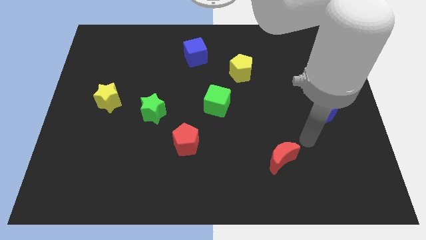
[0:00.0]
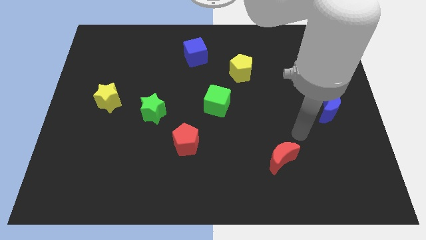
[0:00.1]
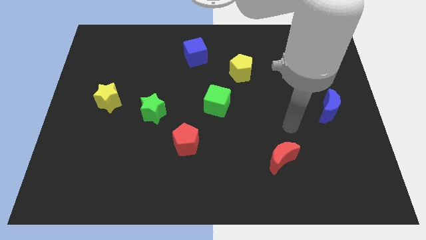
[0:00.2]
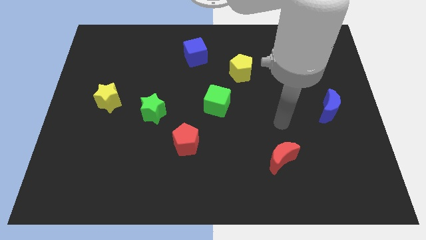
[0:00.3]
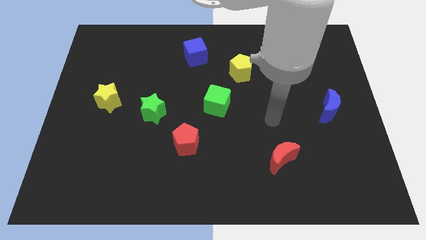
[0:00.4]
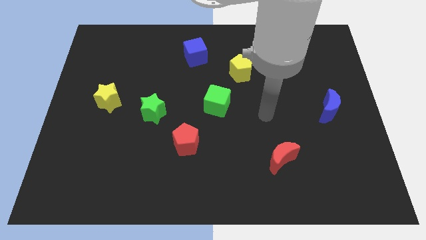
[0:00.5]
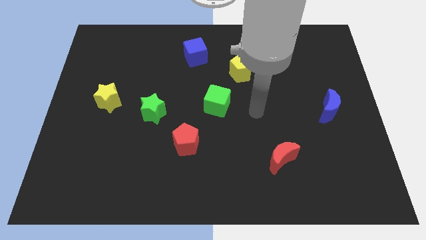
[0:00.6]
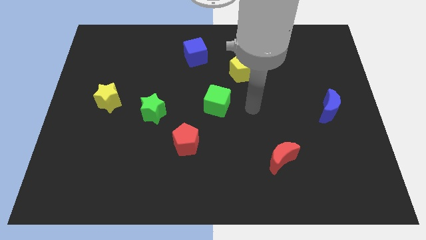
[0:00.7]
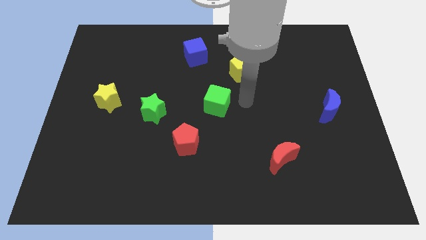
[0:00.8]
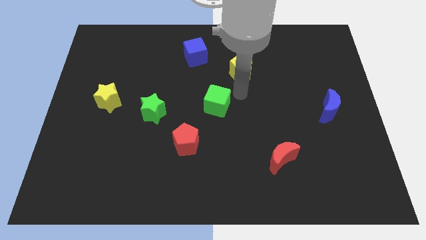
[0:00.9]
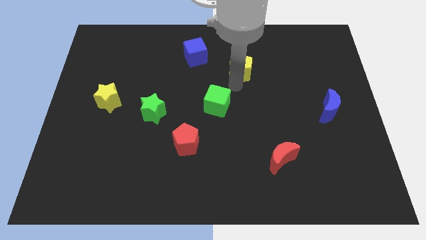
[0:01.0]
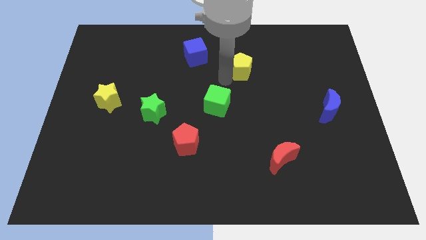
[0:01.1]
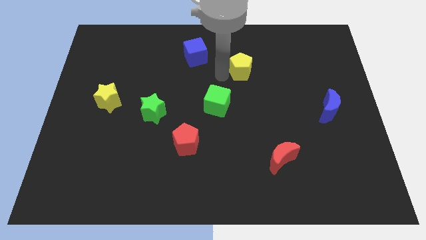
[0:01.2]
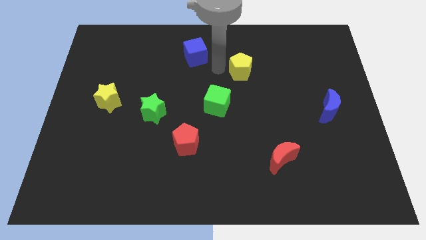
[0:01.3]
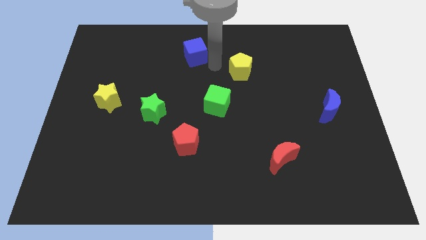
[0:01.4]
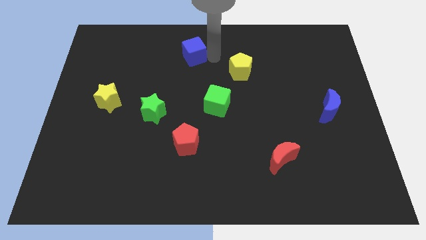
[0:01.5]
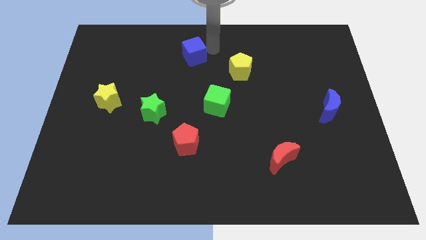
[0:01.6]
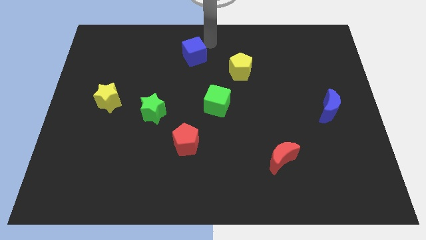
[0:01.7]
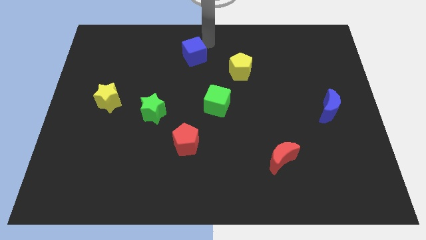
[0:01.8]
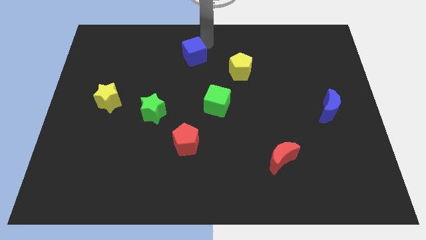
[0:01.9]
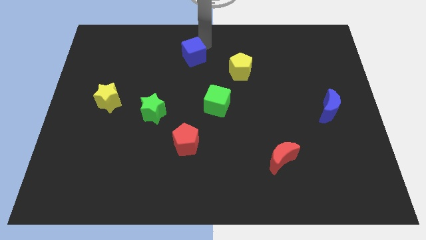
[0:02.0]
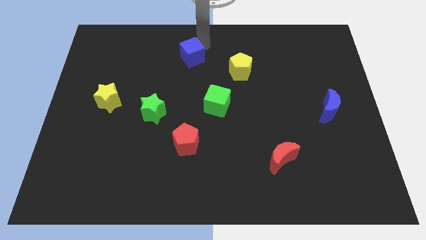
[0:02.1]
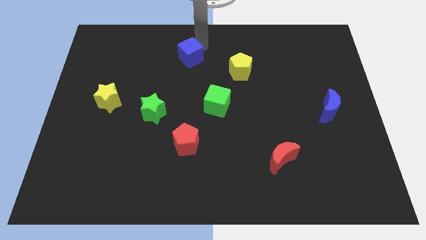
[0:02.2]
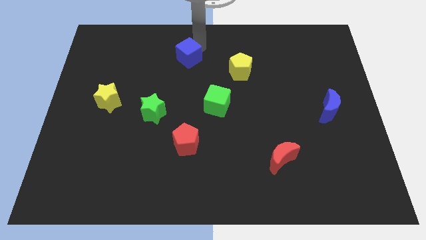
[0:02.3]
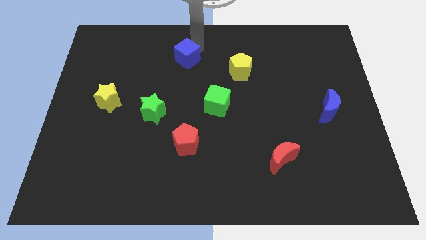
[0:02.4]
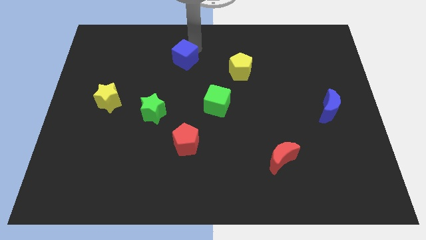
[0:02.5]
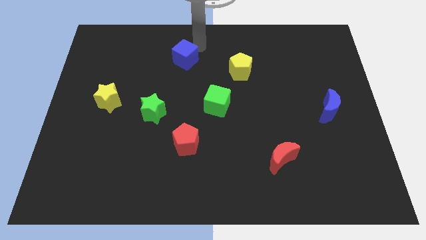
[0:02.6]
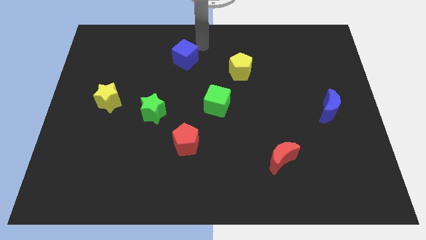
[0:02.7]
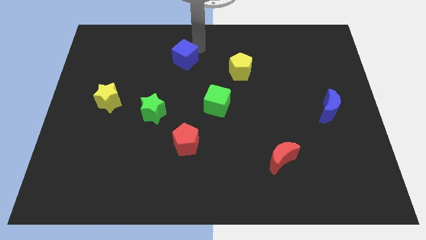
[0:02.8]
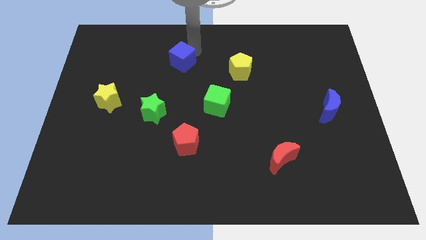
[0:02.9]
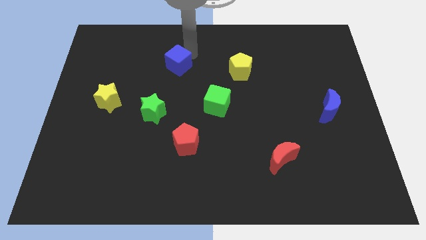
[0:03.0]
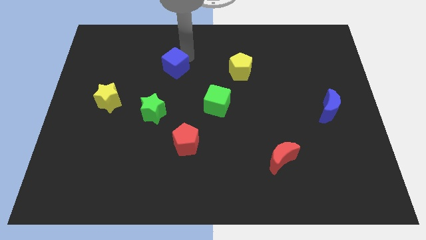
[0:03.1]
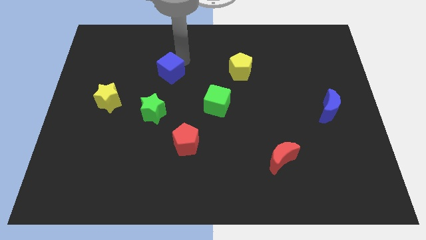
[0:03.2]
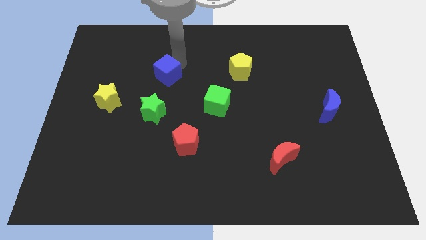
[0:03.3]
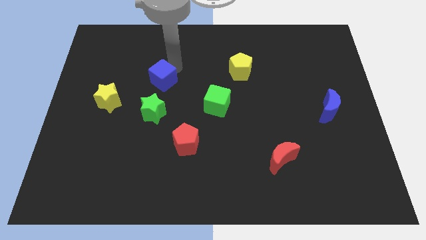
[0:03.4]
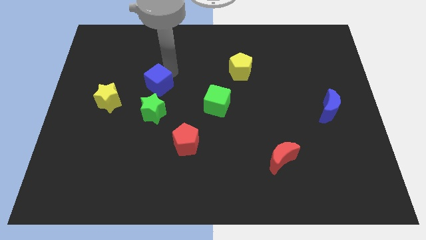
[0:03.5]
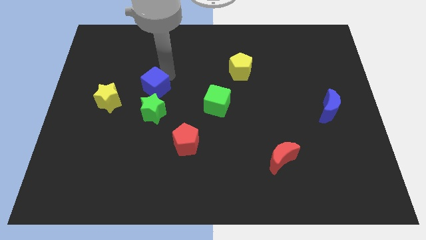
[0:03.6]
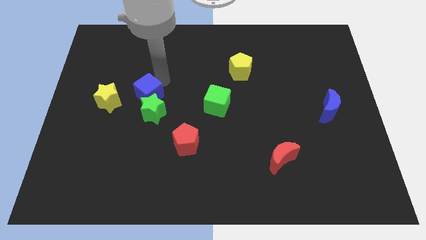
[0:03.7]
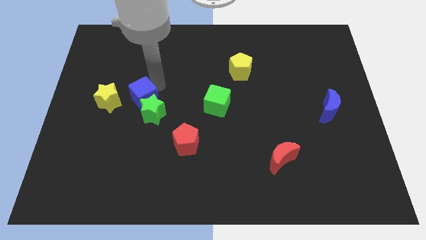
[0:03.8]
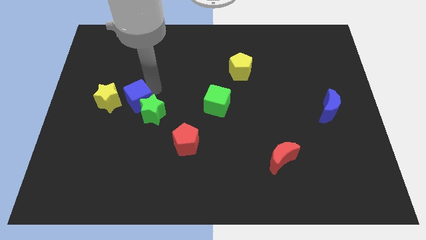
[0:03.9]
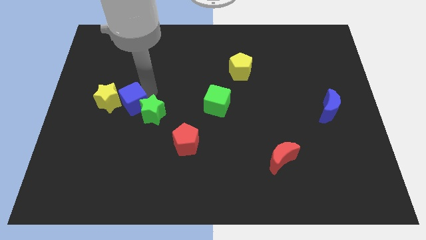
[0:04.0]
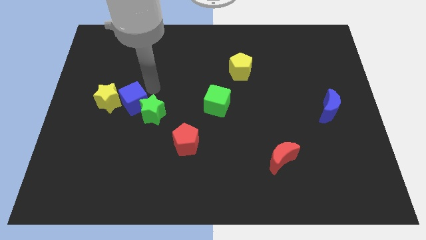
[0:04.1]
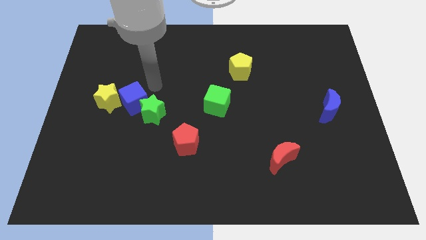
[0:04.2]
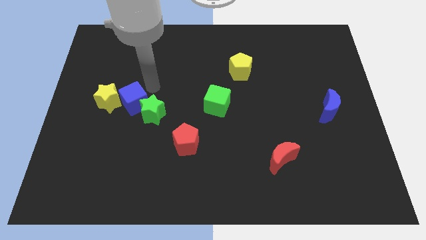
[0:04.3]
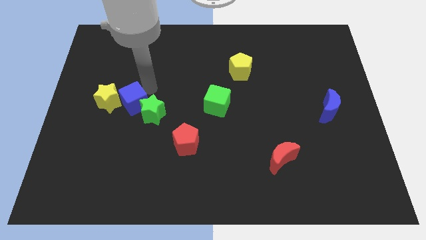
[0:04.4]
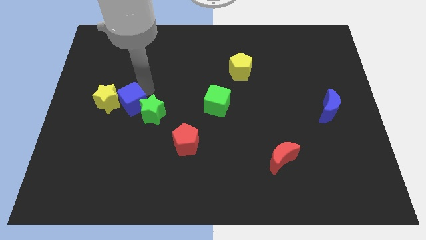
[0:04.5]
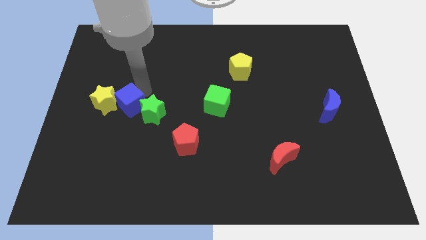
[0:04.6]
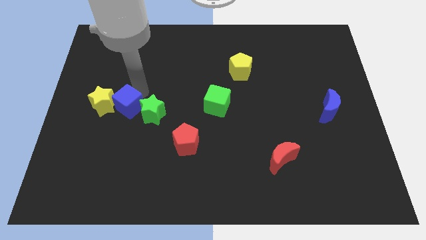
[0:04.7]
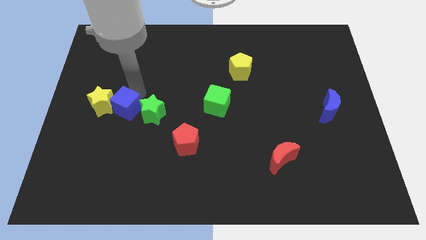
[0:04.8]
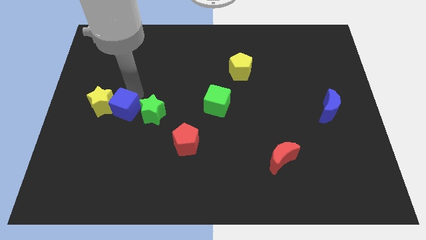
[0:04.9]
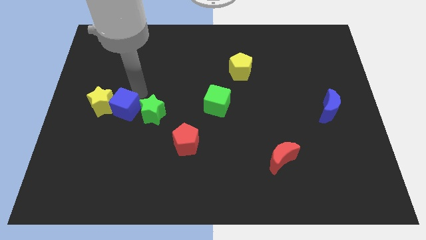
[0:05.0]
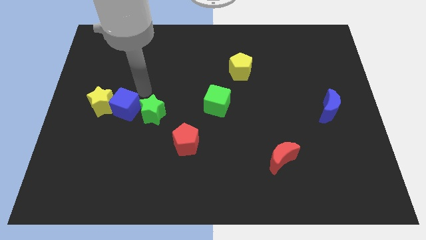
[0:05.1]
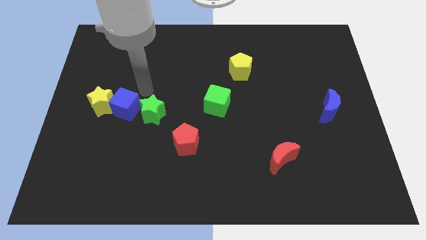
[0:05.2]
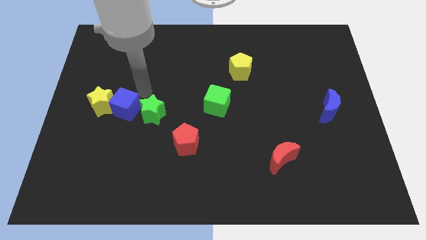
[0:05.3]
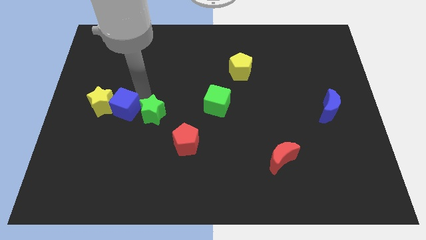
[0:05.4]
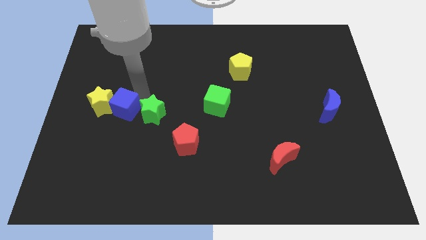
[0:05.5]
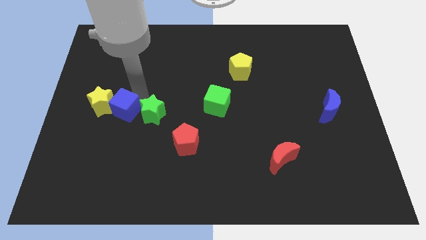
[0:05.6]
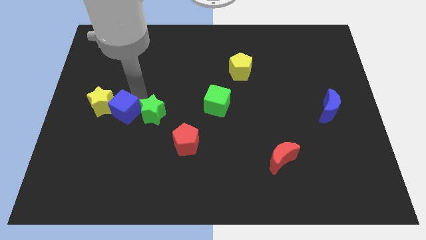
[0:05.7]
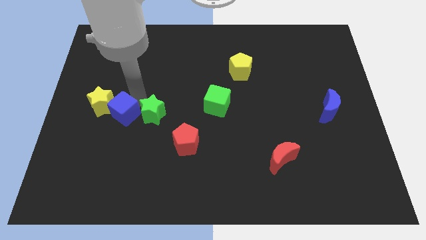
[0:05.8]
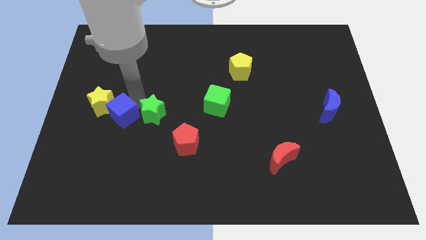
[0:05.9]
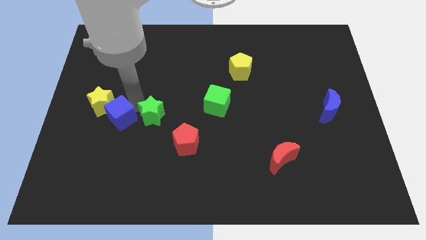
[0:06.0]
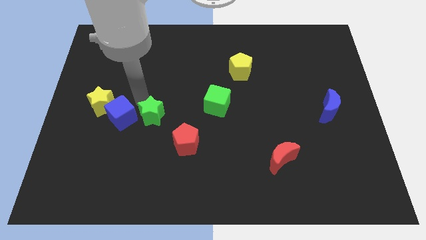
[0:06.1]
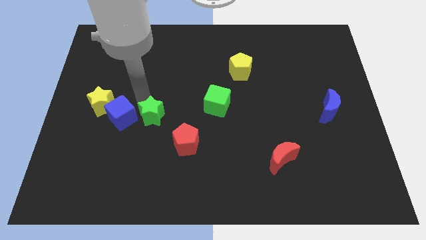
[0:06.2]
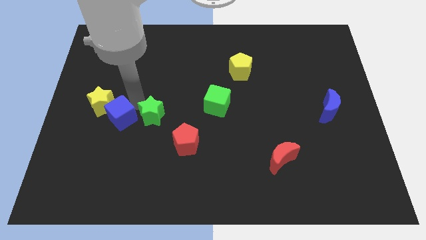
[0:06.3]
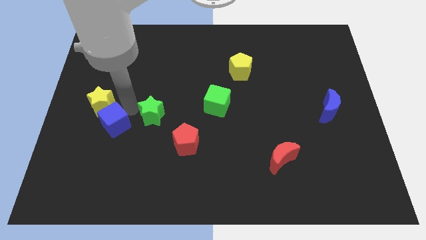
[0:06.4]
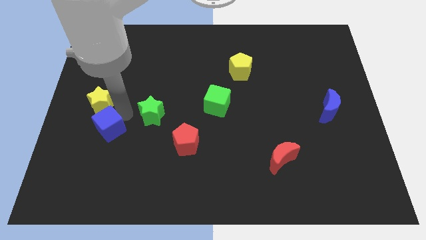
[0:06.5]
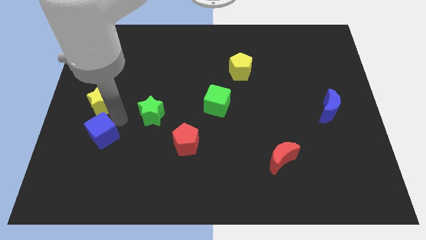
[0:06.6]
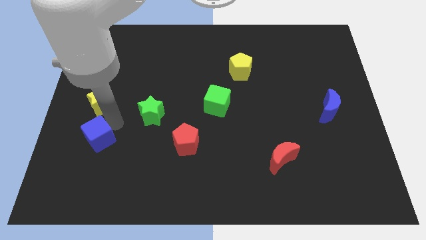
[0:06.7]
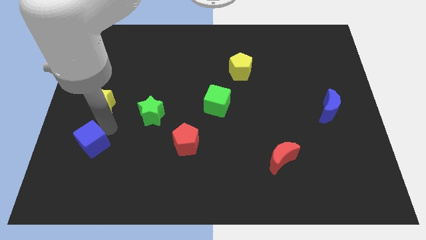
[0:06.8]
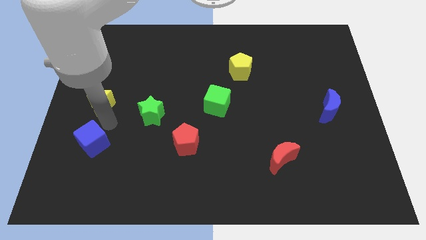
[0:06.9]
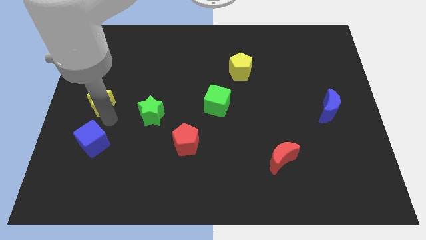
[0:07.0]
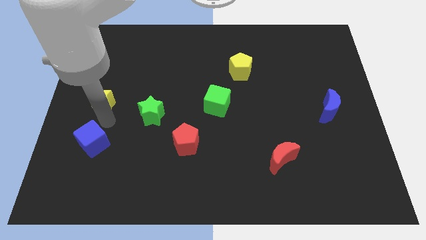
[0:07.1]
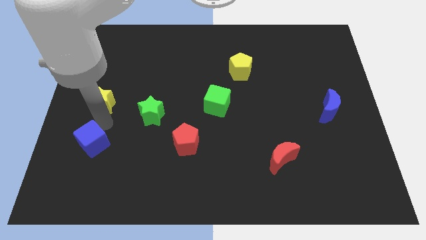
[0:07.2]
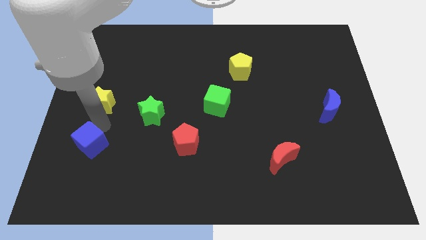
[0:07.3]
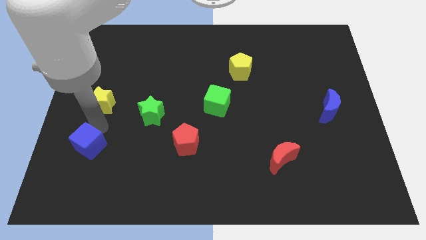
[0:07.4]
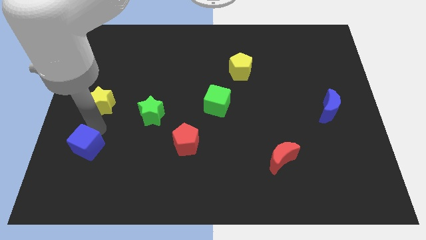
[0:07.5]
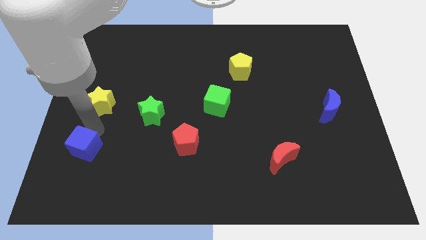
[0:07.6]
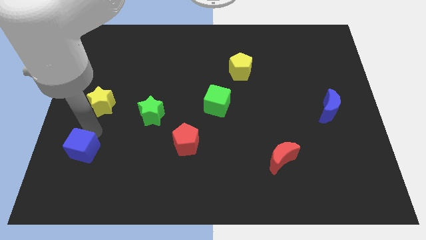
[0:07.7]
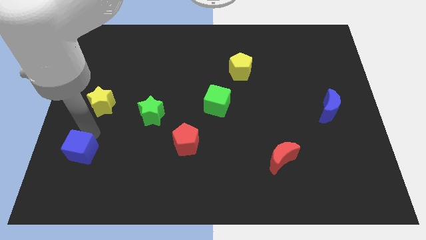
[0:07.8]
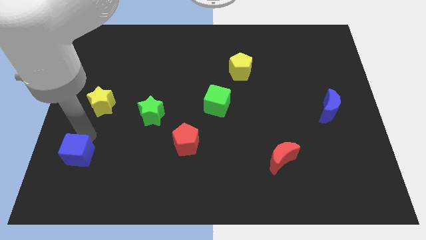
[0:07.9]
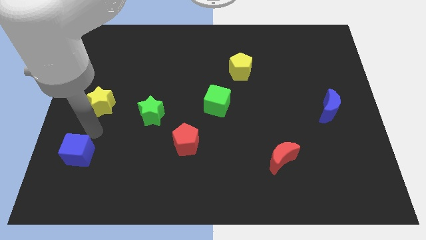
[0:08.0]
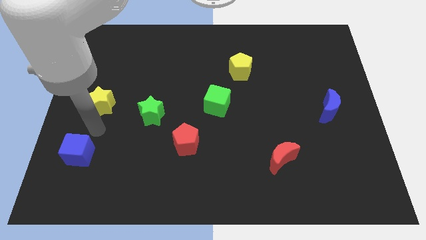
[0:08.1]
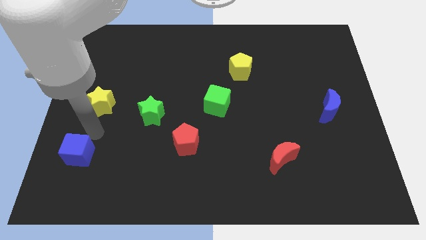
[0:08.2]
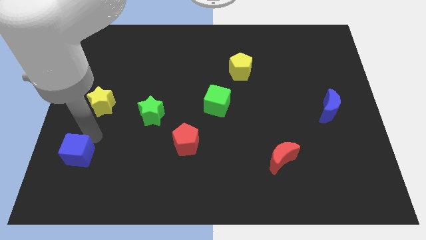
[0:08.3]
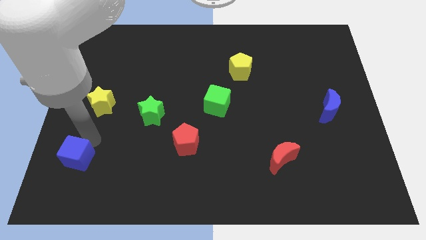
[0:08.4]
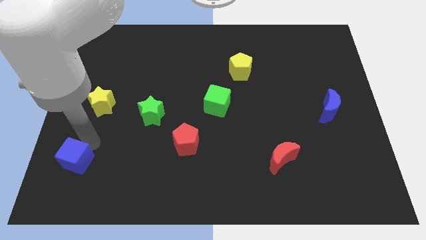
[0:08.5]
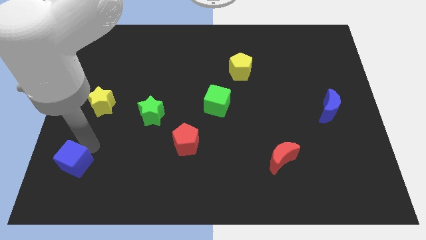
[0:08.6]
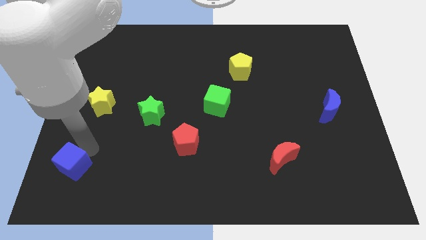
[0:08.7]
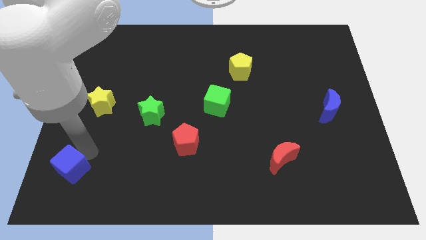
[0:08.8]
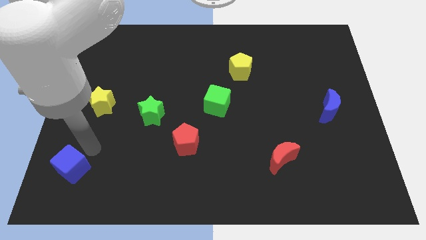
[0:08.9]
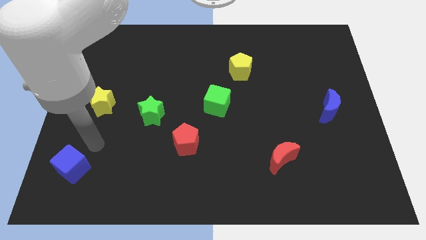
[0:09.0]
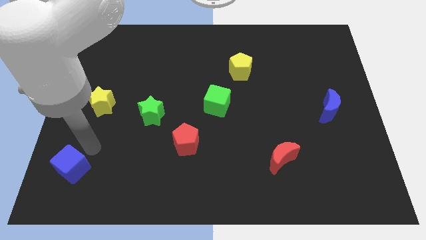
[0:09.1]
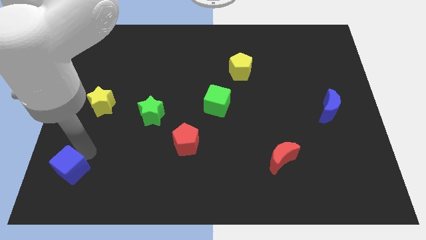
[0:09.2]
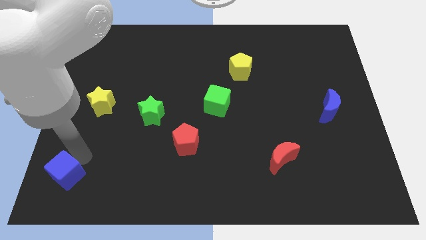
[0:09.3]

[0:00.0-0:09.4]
slide the blue cube to the lower left corner
